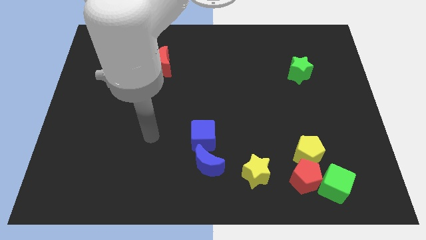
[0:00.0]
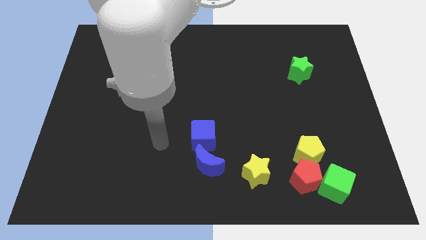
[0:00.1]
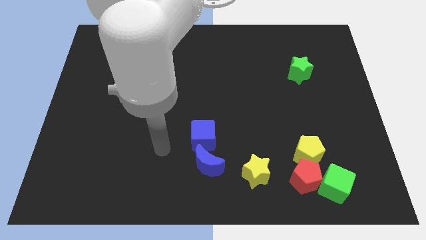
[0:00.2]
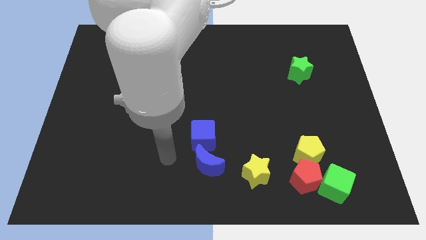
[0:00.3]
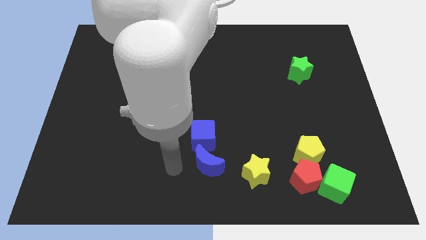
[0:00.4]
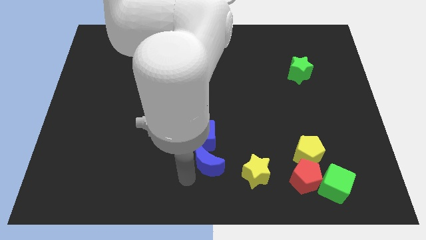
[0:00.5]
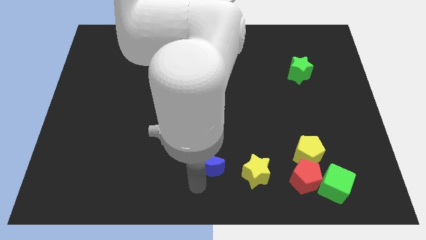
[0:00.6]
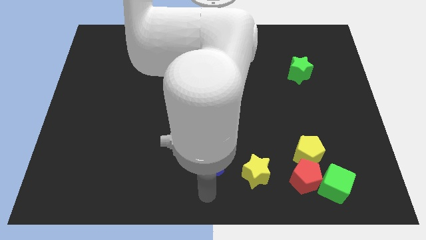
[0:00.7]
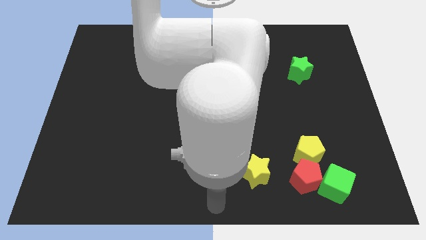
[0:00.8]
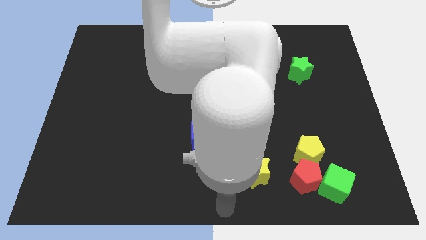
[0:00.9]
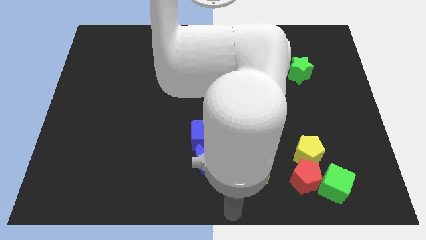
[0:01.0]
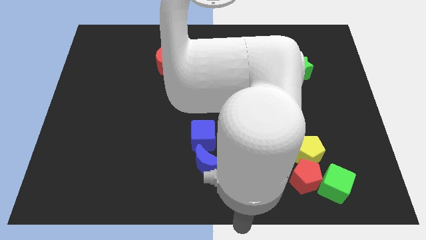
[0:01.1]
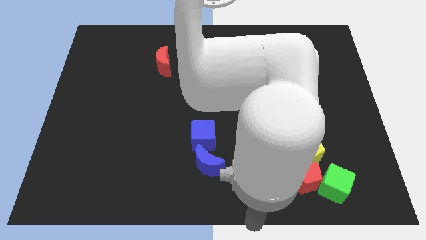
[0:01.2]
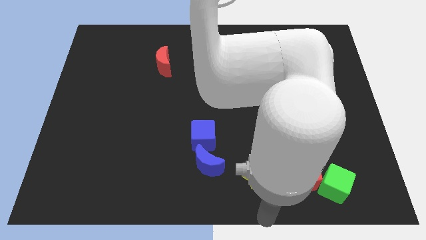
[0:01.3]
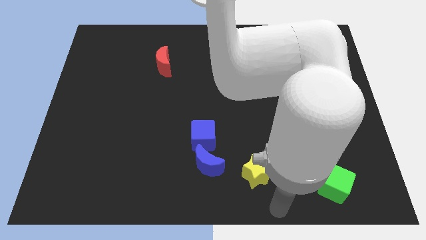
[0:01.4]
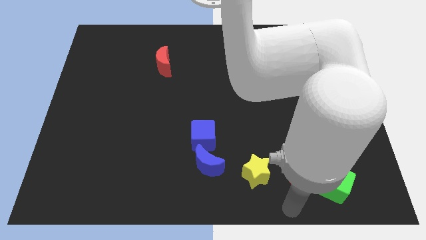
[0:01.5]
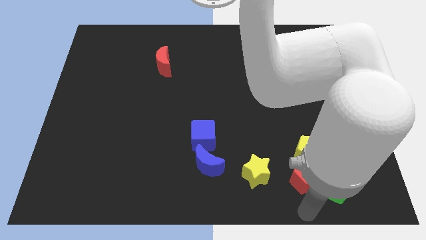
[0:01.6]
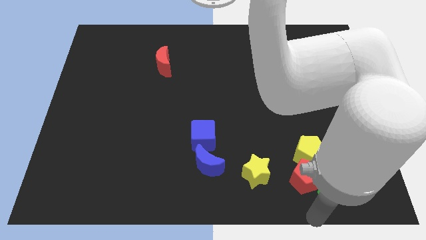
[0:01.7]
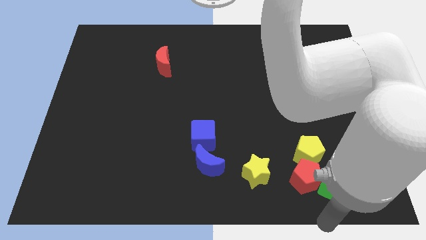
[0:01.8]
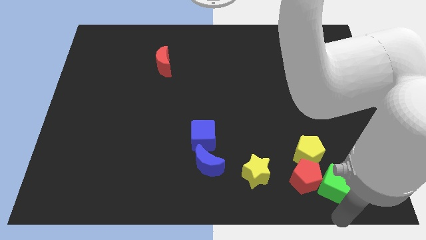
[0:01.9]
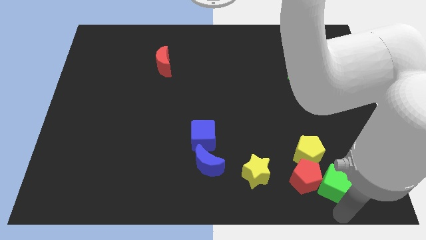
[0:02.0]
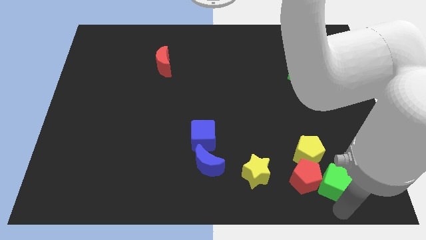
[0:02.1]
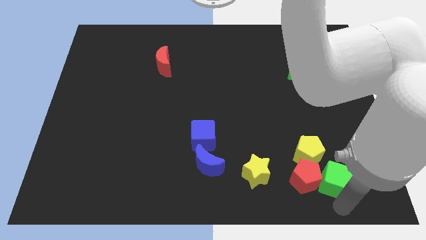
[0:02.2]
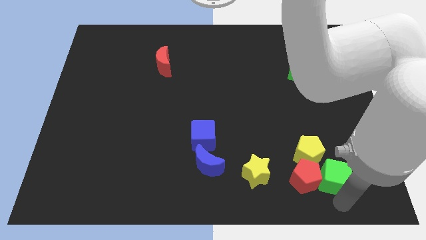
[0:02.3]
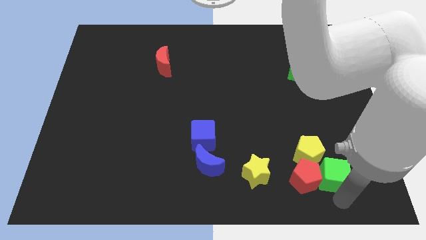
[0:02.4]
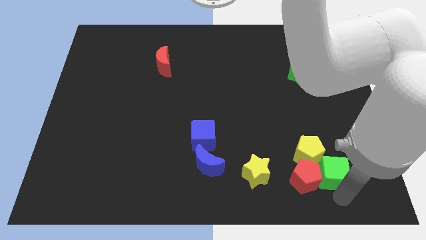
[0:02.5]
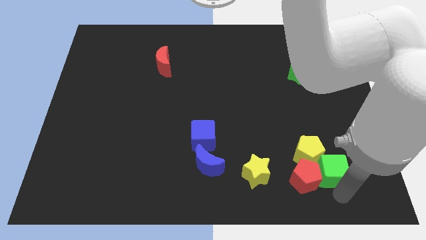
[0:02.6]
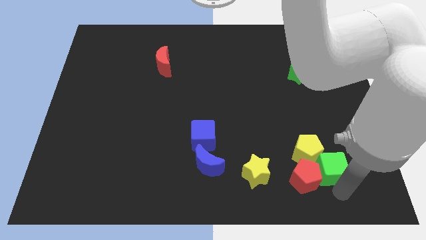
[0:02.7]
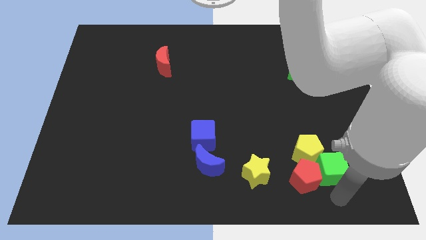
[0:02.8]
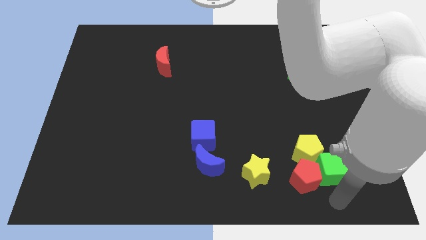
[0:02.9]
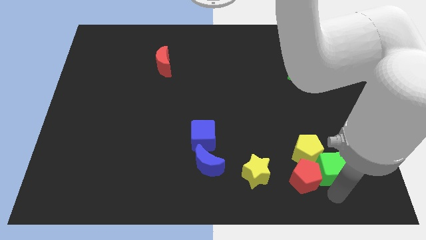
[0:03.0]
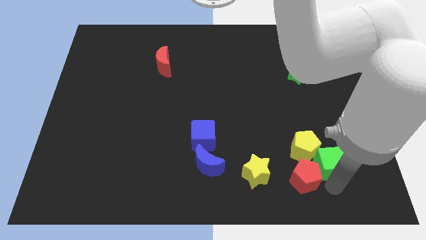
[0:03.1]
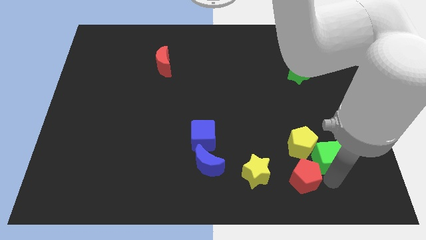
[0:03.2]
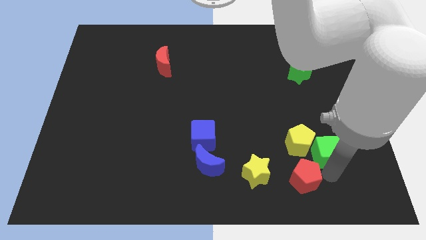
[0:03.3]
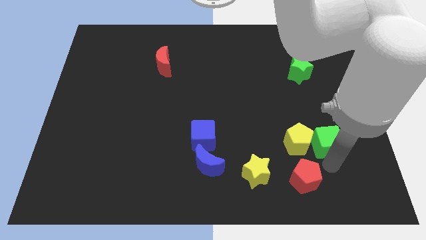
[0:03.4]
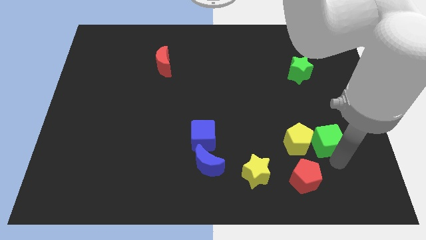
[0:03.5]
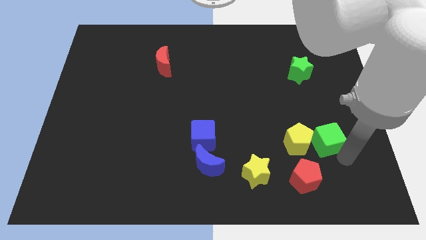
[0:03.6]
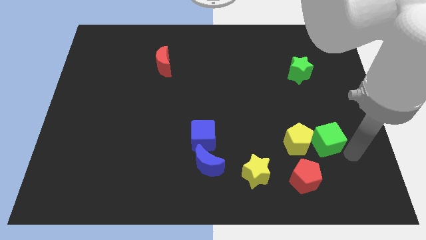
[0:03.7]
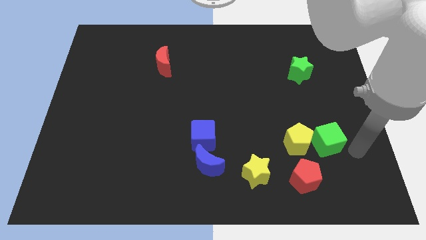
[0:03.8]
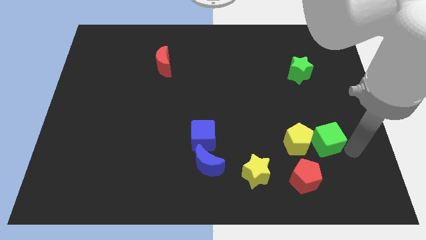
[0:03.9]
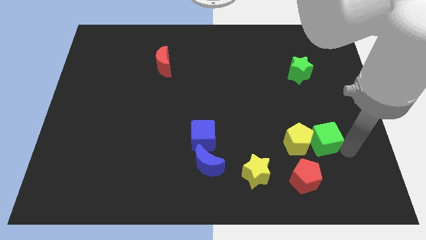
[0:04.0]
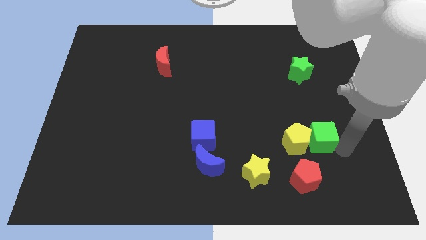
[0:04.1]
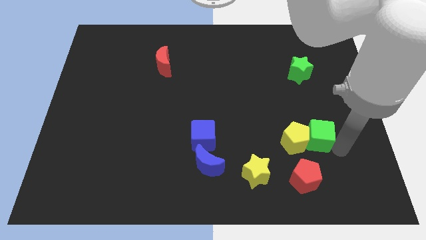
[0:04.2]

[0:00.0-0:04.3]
slide the green cube diagonally up and to the left a little bit

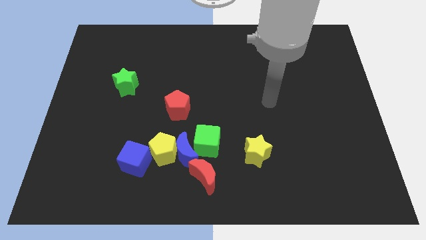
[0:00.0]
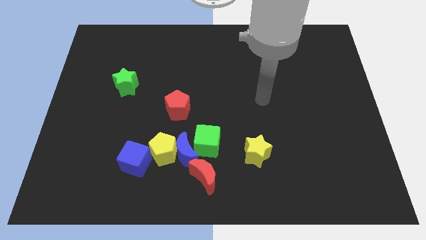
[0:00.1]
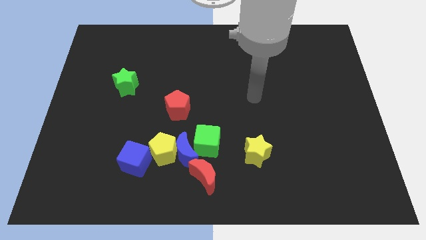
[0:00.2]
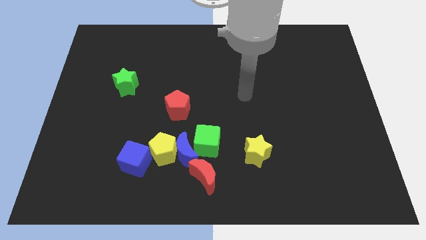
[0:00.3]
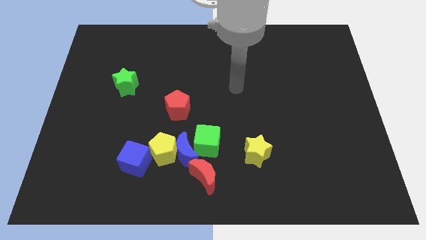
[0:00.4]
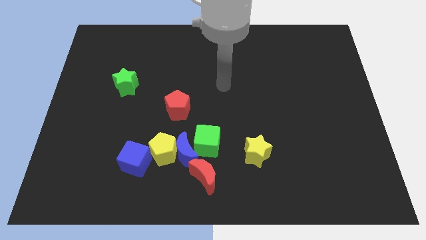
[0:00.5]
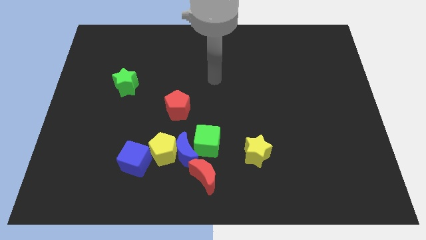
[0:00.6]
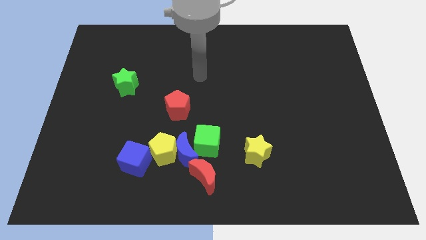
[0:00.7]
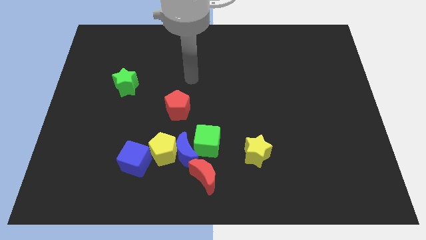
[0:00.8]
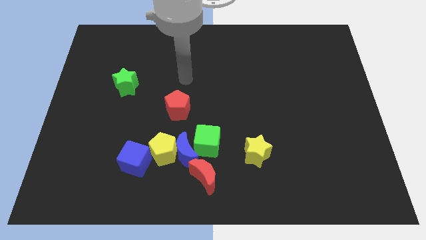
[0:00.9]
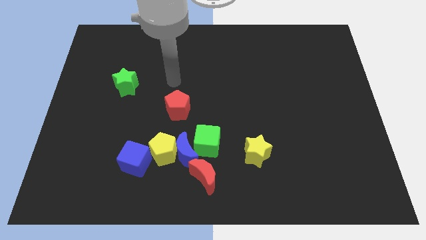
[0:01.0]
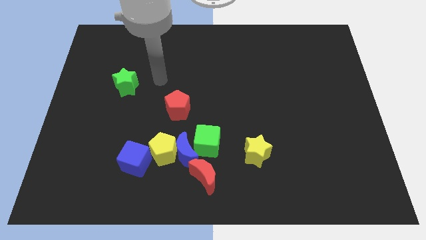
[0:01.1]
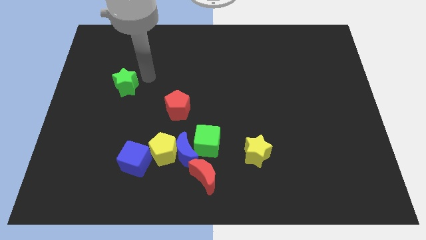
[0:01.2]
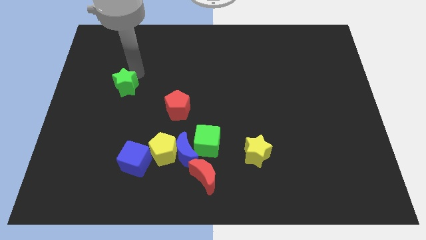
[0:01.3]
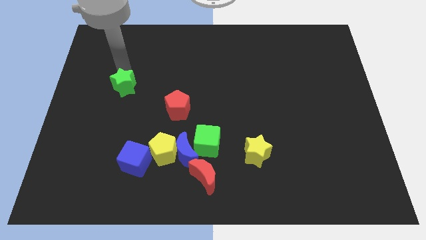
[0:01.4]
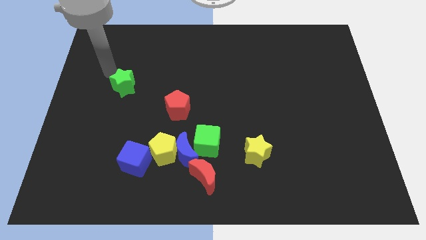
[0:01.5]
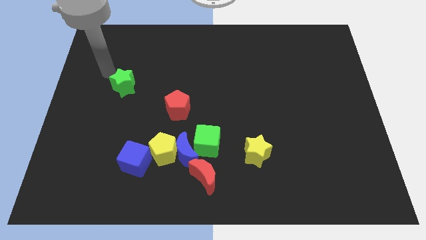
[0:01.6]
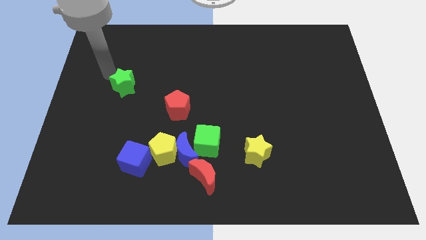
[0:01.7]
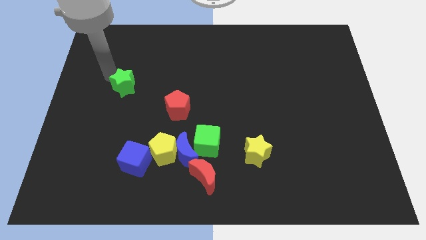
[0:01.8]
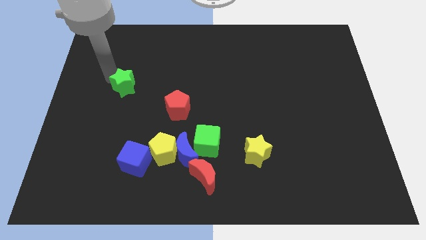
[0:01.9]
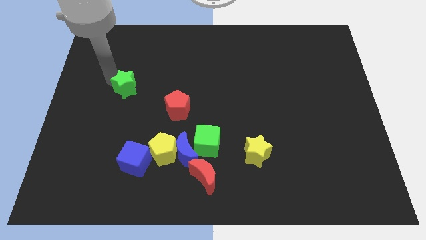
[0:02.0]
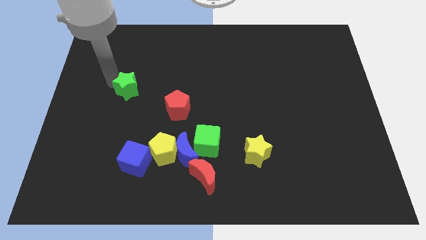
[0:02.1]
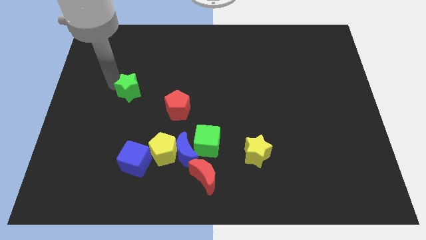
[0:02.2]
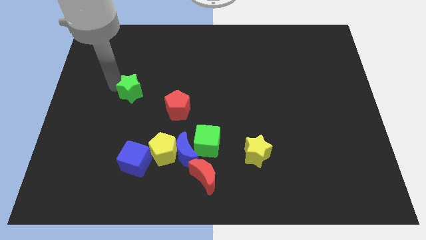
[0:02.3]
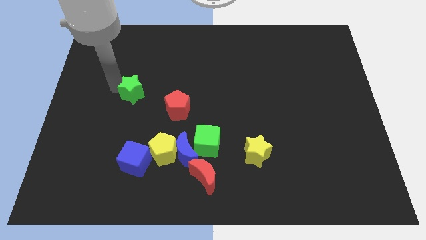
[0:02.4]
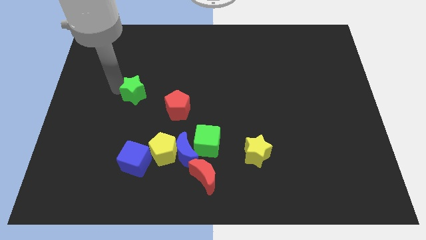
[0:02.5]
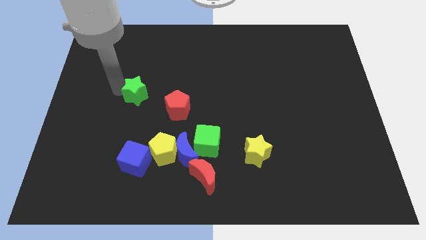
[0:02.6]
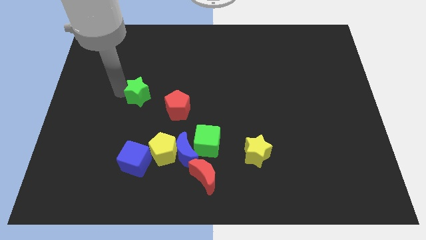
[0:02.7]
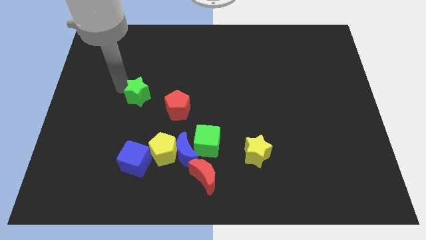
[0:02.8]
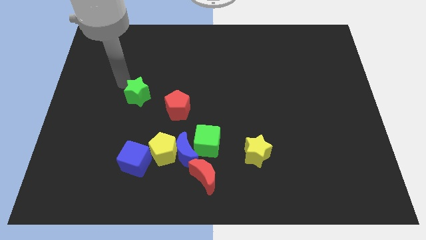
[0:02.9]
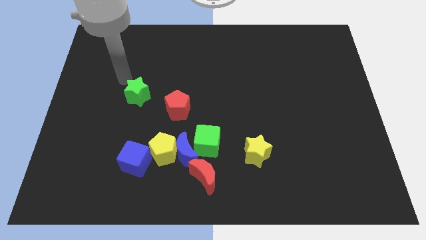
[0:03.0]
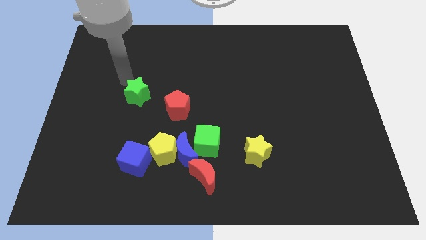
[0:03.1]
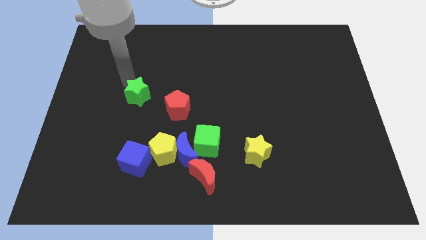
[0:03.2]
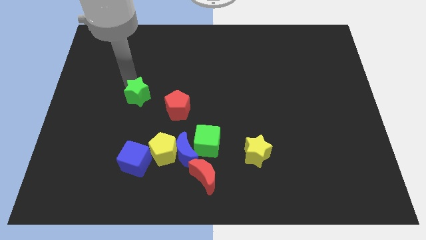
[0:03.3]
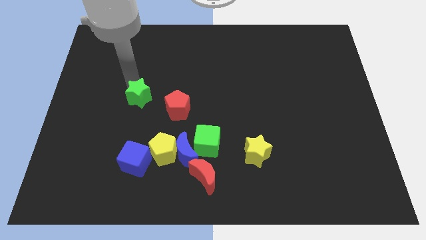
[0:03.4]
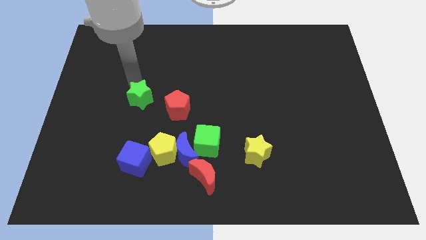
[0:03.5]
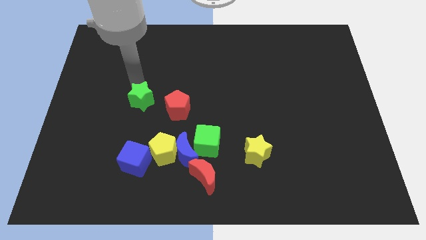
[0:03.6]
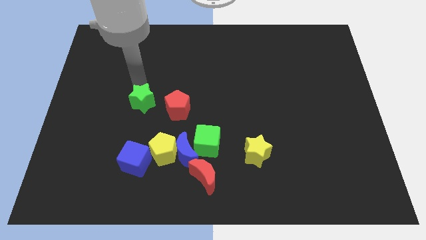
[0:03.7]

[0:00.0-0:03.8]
slightly push the green star downwards and right
